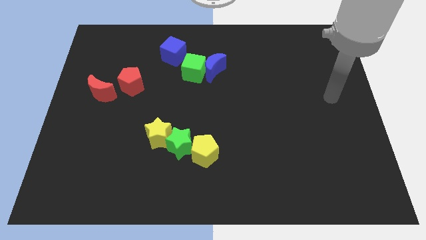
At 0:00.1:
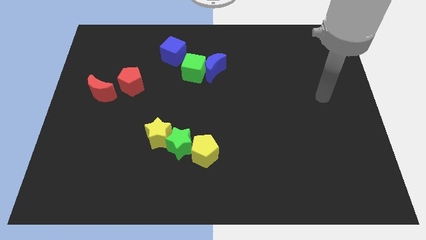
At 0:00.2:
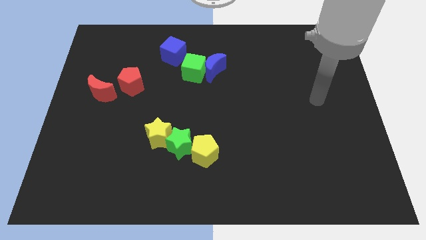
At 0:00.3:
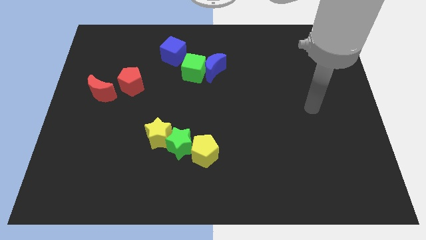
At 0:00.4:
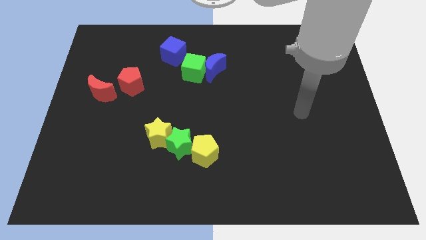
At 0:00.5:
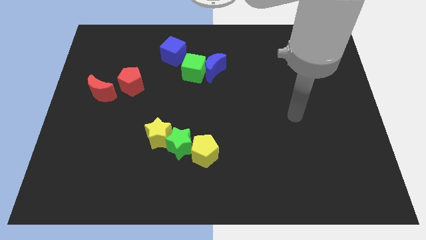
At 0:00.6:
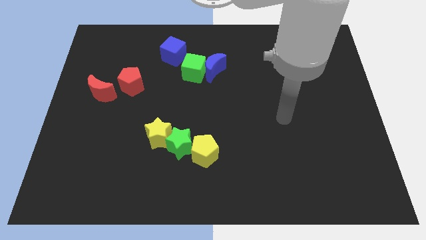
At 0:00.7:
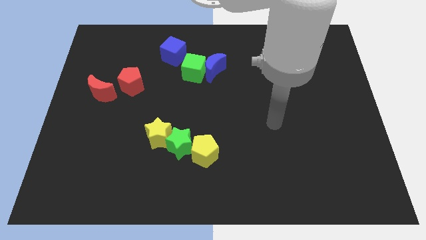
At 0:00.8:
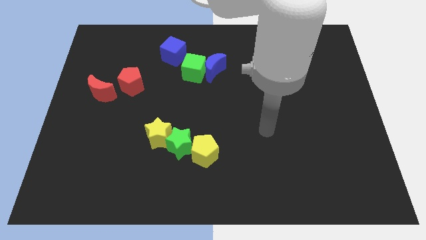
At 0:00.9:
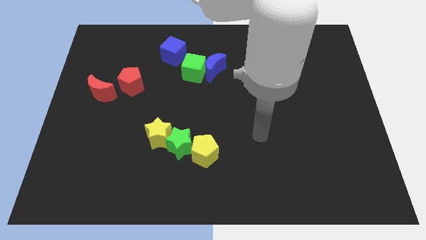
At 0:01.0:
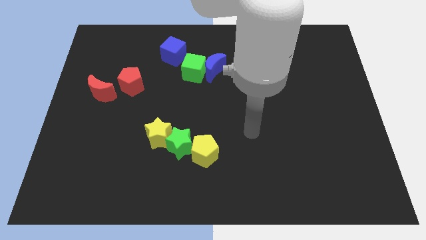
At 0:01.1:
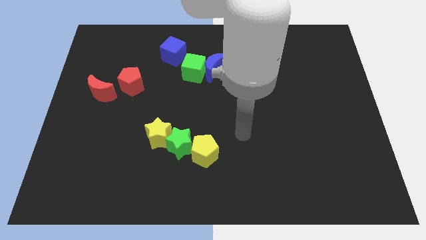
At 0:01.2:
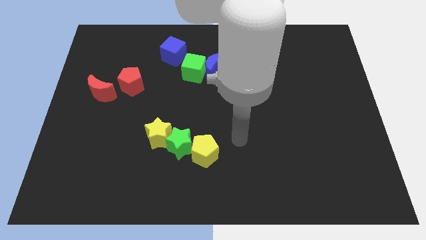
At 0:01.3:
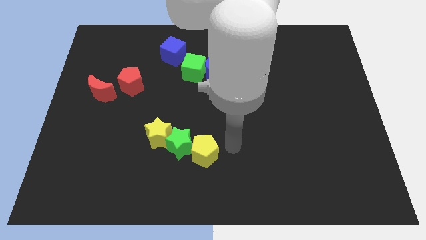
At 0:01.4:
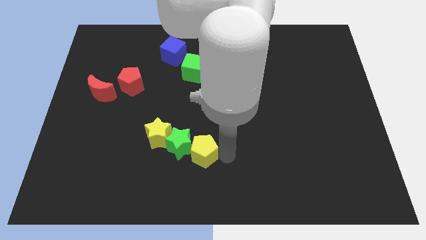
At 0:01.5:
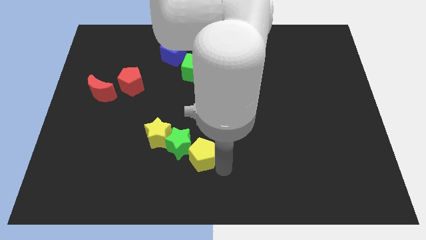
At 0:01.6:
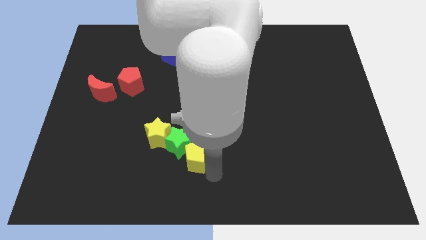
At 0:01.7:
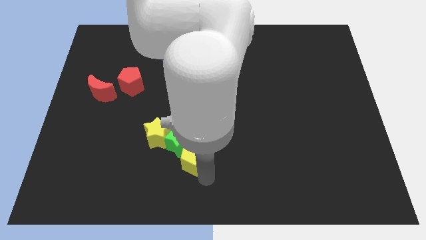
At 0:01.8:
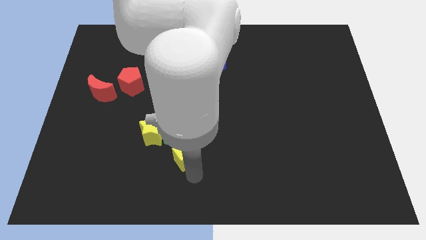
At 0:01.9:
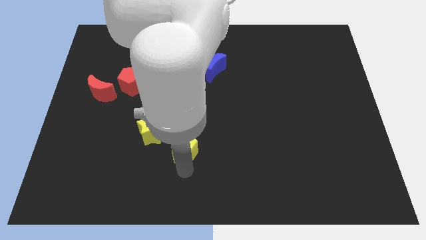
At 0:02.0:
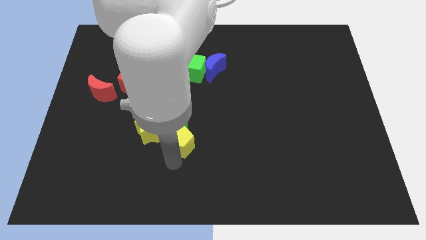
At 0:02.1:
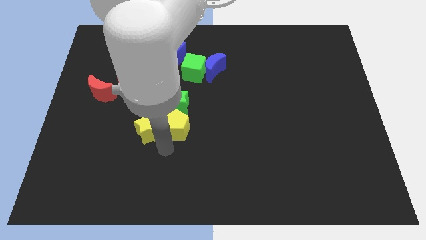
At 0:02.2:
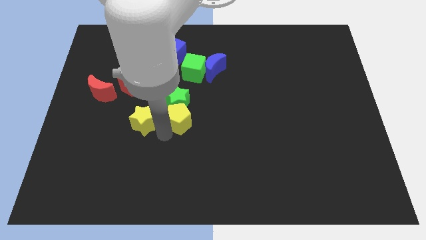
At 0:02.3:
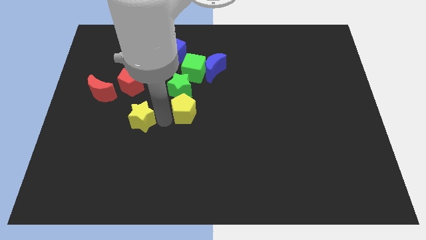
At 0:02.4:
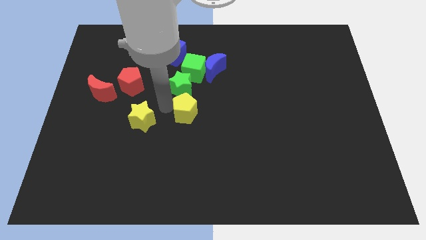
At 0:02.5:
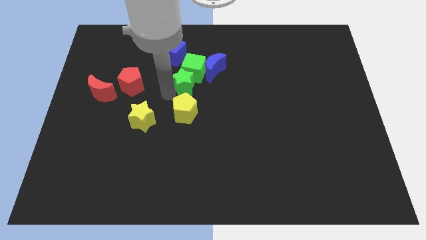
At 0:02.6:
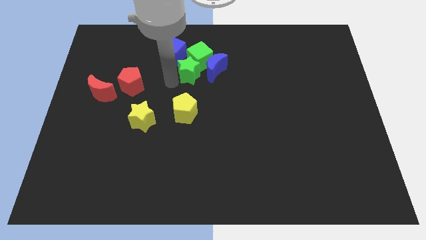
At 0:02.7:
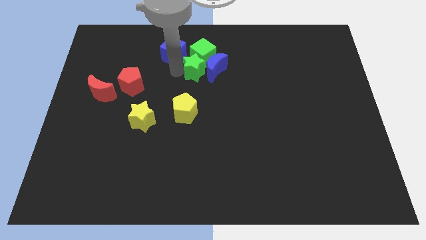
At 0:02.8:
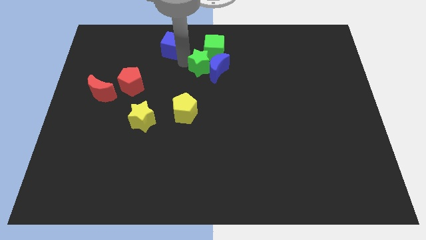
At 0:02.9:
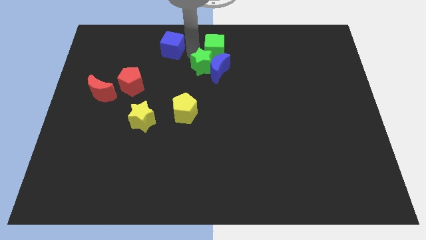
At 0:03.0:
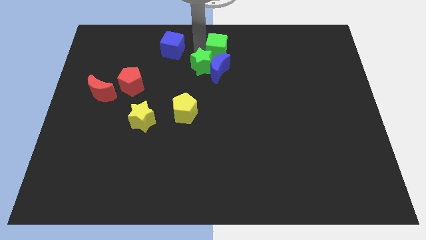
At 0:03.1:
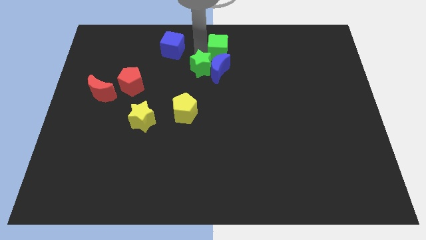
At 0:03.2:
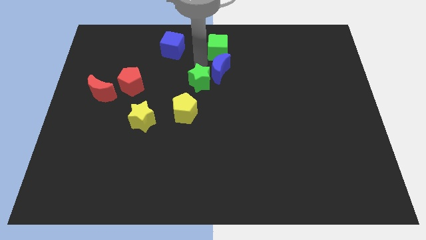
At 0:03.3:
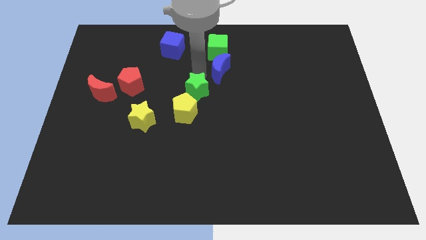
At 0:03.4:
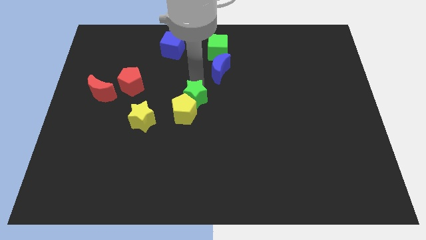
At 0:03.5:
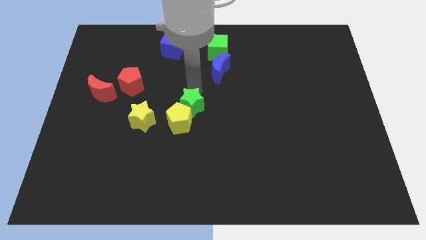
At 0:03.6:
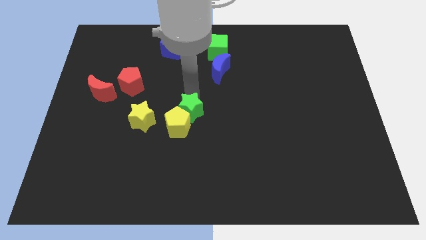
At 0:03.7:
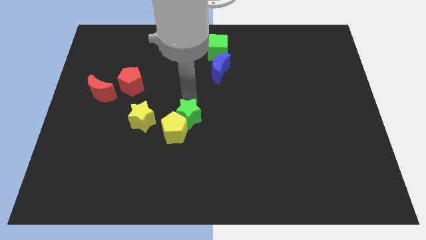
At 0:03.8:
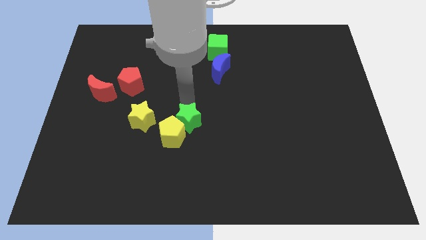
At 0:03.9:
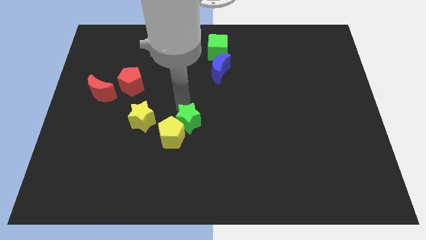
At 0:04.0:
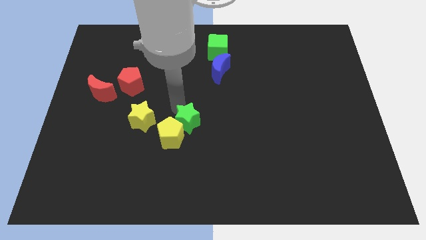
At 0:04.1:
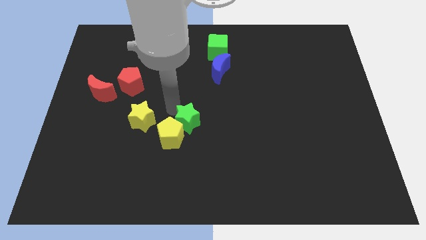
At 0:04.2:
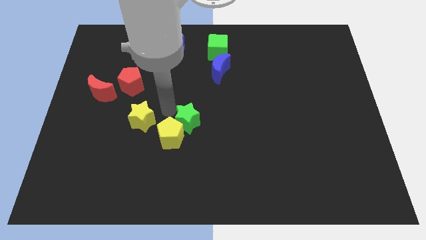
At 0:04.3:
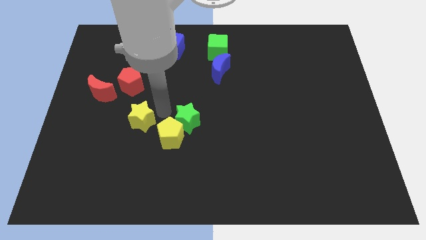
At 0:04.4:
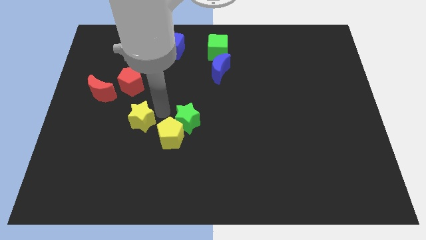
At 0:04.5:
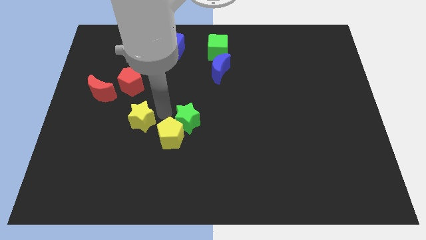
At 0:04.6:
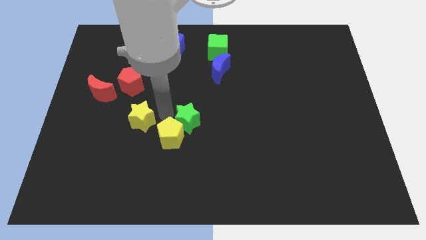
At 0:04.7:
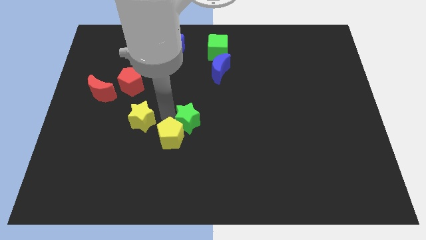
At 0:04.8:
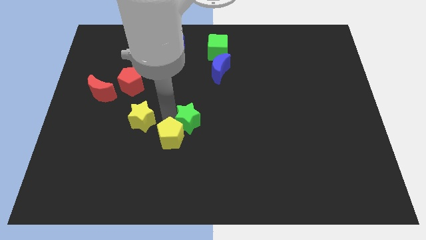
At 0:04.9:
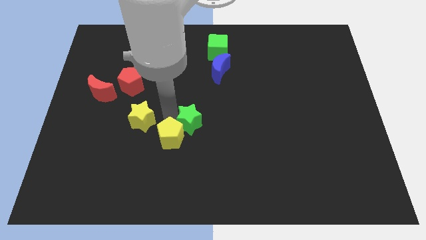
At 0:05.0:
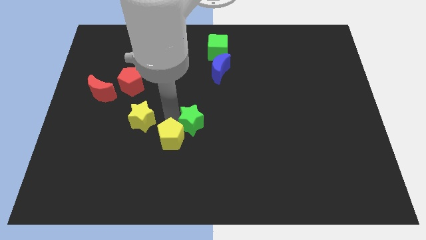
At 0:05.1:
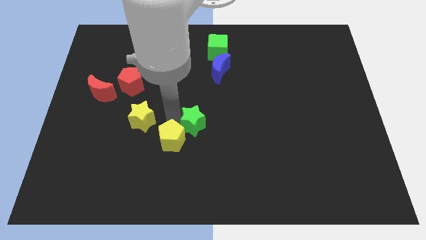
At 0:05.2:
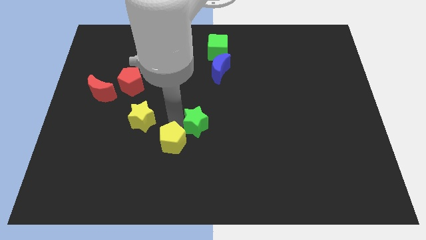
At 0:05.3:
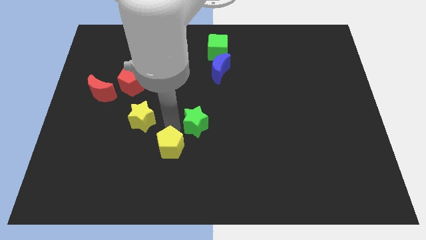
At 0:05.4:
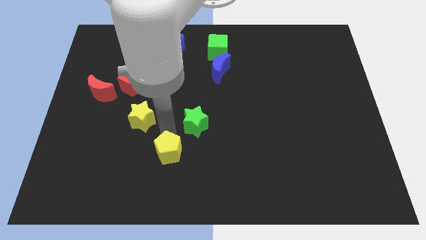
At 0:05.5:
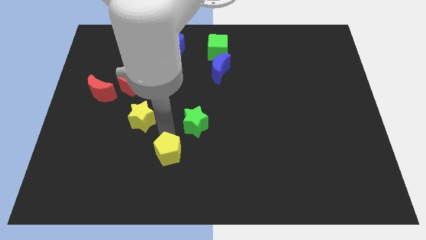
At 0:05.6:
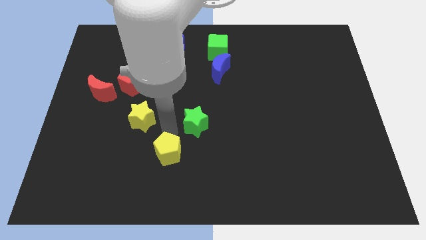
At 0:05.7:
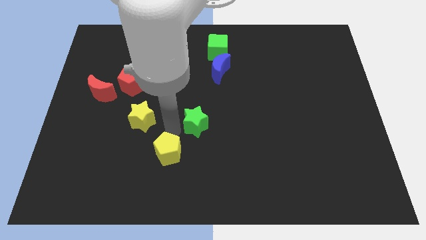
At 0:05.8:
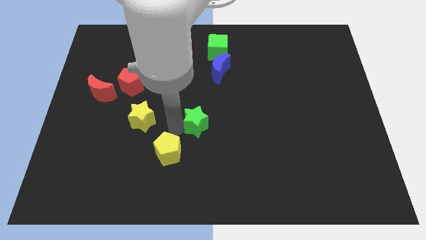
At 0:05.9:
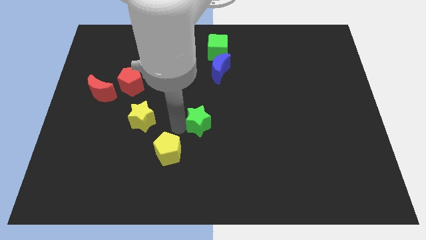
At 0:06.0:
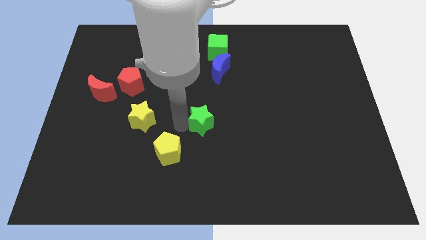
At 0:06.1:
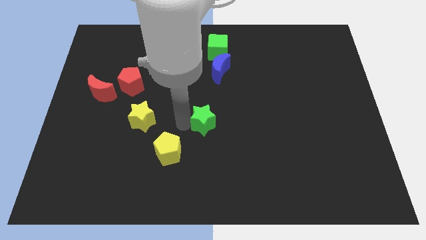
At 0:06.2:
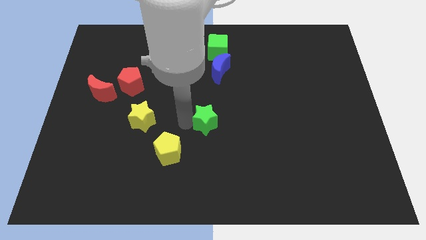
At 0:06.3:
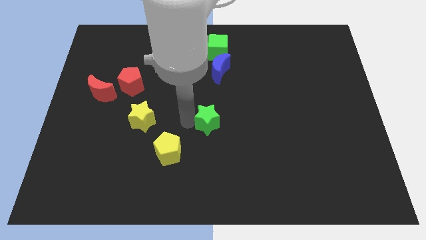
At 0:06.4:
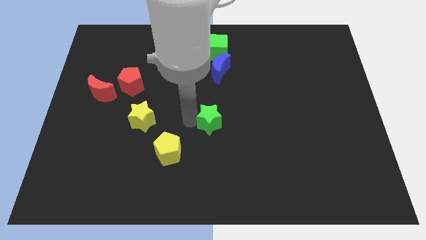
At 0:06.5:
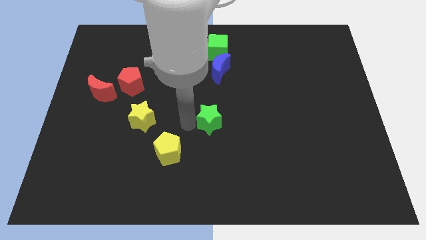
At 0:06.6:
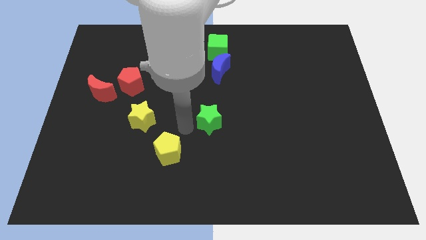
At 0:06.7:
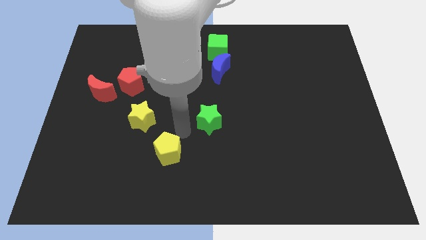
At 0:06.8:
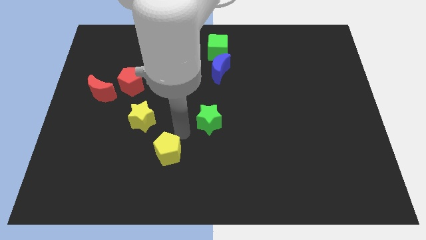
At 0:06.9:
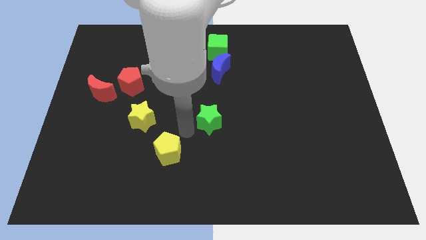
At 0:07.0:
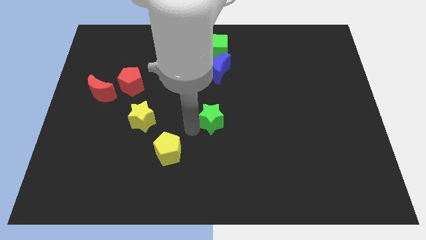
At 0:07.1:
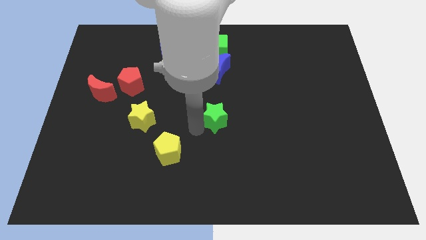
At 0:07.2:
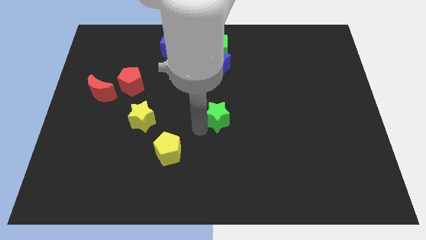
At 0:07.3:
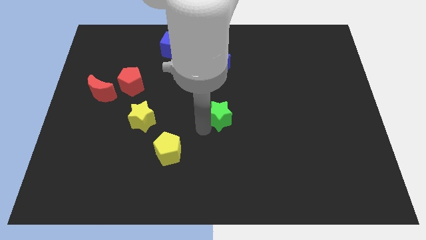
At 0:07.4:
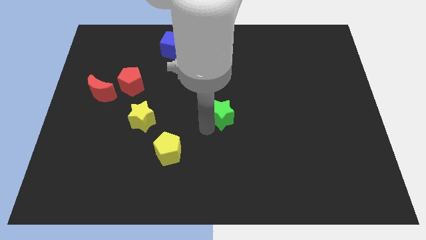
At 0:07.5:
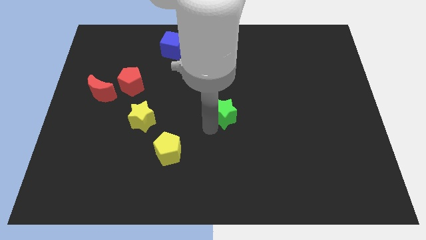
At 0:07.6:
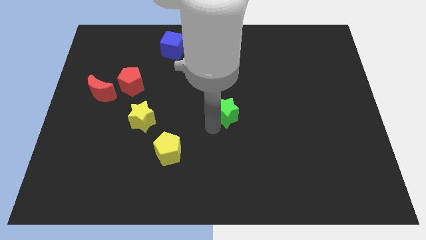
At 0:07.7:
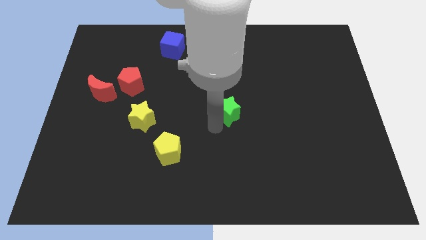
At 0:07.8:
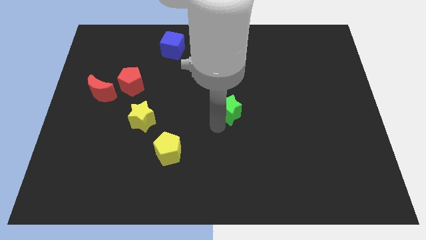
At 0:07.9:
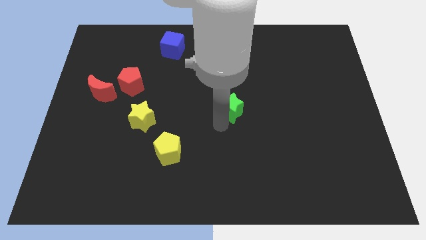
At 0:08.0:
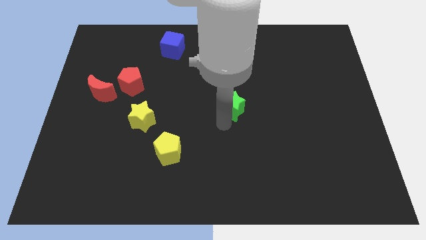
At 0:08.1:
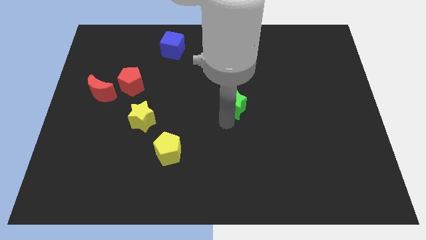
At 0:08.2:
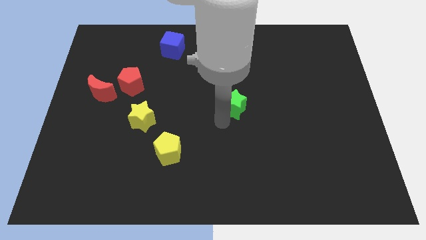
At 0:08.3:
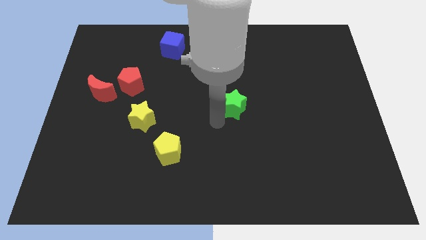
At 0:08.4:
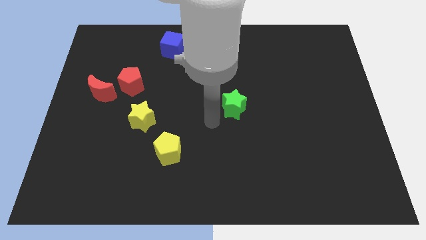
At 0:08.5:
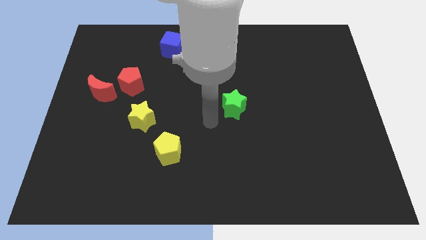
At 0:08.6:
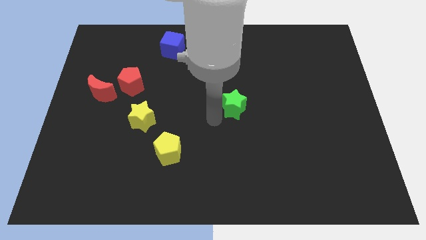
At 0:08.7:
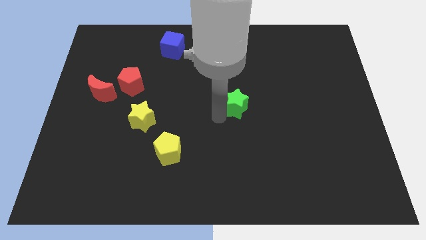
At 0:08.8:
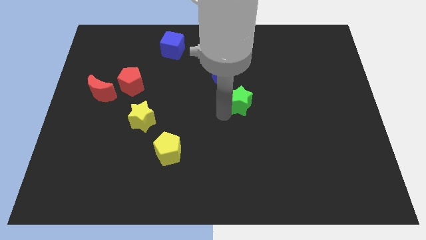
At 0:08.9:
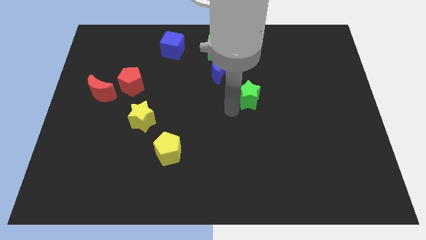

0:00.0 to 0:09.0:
move the green star upwards and to the right diagonally
